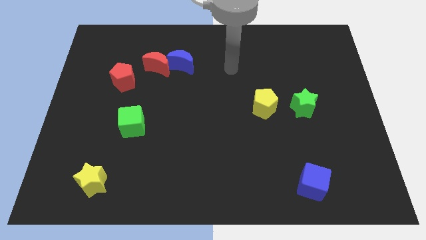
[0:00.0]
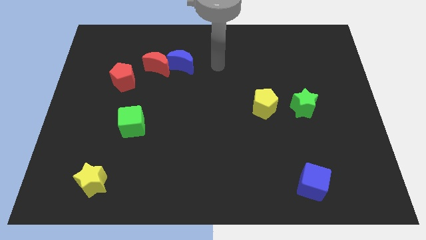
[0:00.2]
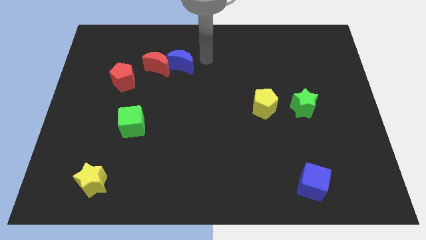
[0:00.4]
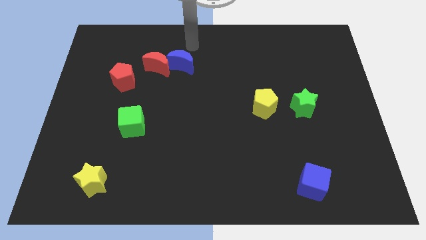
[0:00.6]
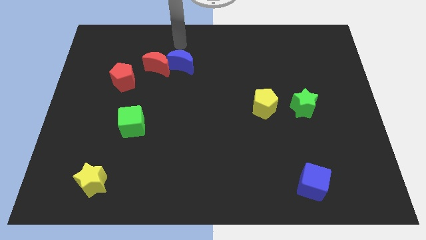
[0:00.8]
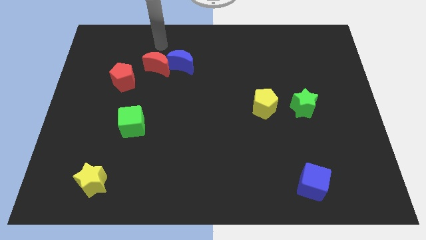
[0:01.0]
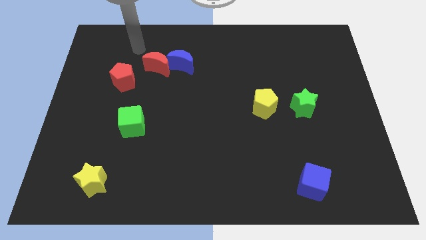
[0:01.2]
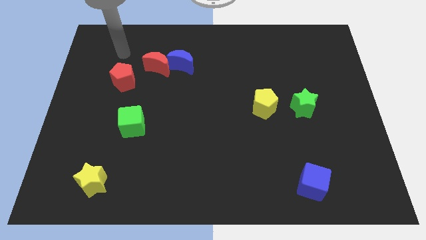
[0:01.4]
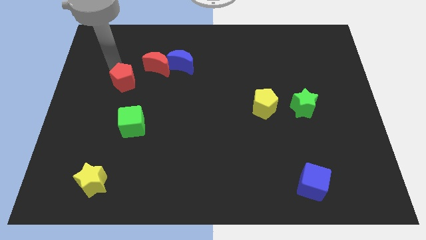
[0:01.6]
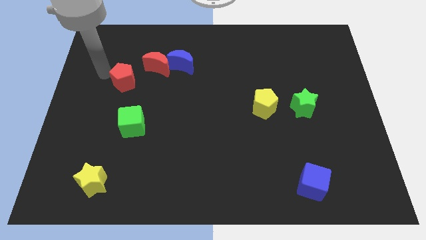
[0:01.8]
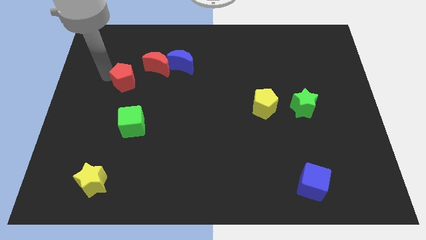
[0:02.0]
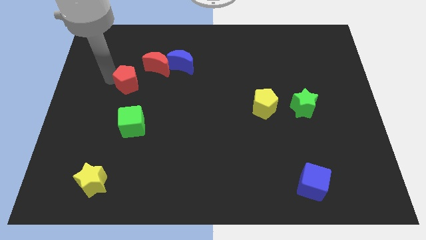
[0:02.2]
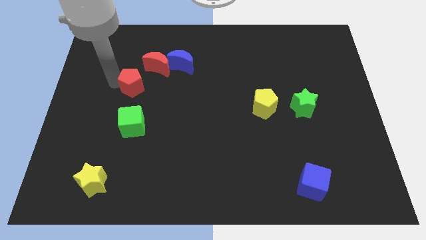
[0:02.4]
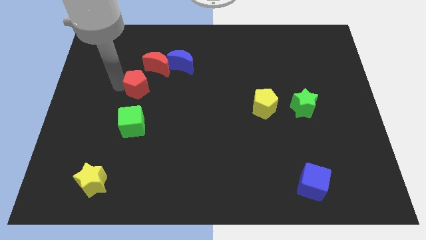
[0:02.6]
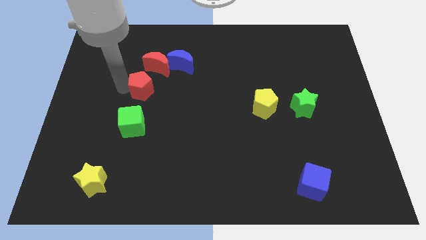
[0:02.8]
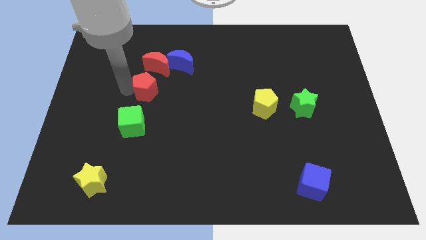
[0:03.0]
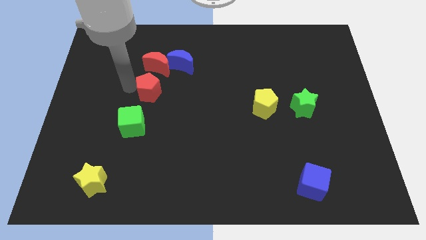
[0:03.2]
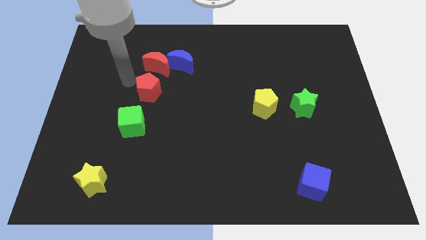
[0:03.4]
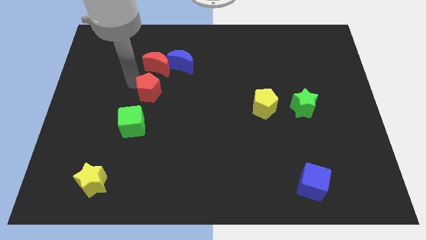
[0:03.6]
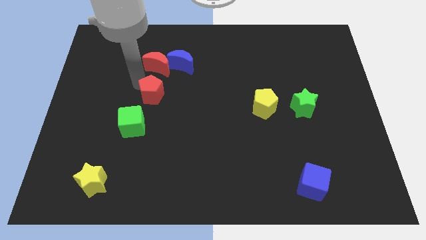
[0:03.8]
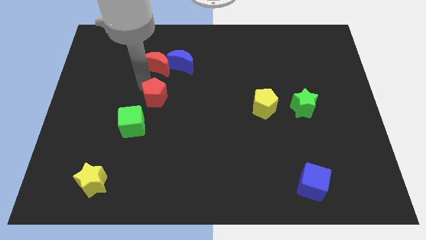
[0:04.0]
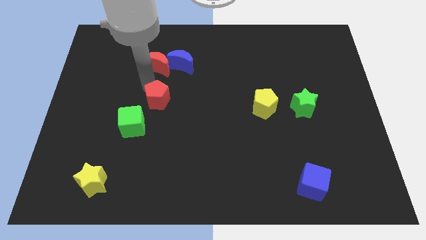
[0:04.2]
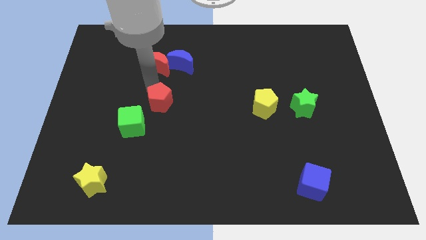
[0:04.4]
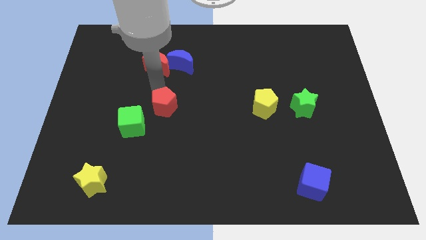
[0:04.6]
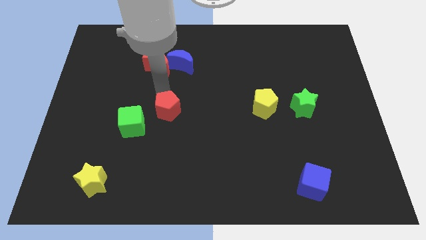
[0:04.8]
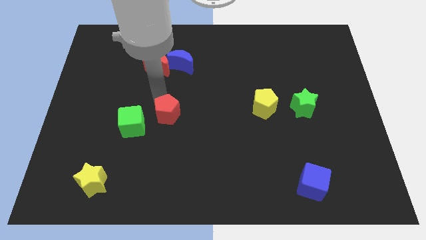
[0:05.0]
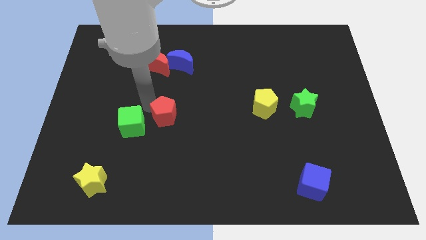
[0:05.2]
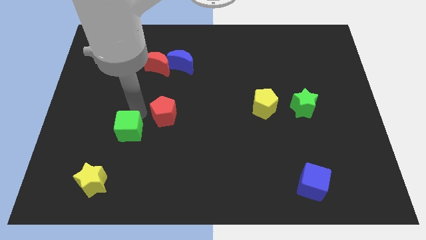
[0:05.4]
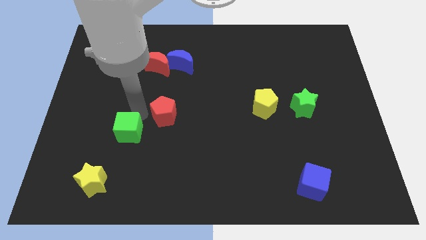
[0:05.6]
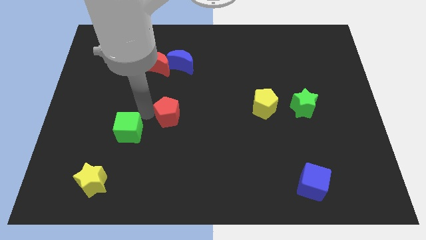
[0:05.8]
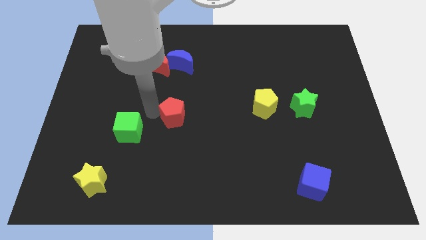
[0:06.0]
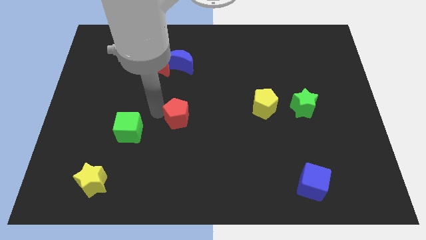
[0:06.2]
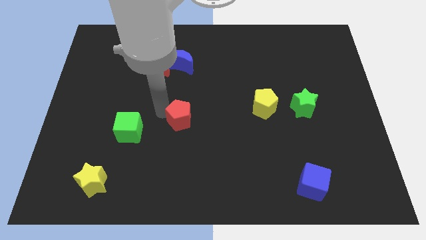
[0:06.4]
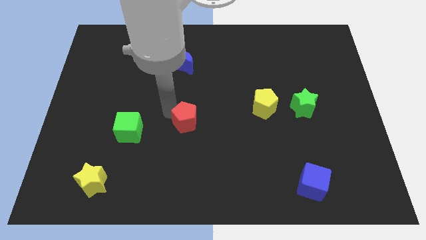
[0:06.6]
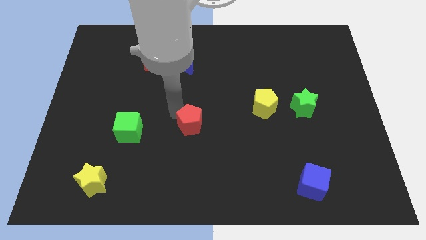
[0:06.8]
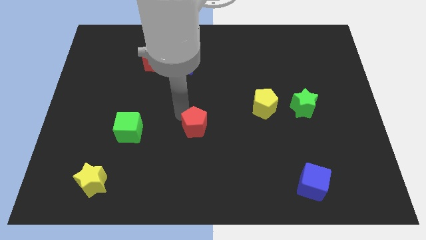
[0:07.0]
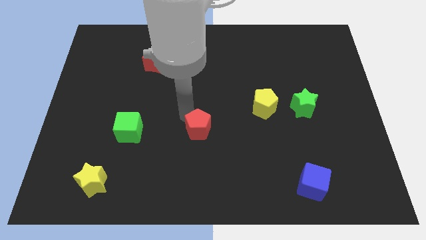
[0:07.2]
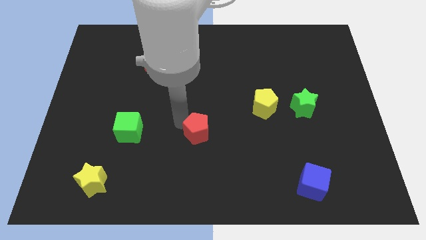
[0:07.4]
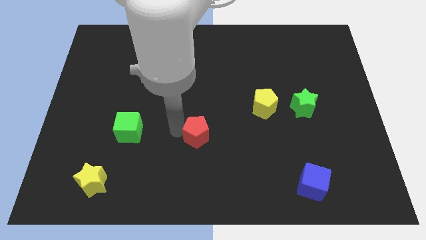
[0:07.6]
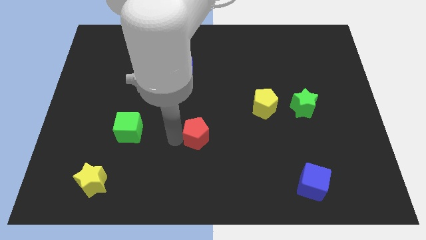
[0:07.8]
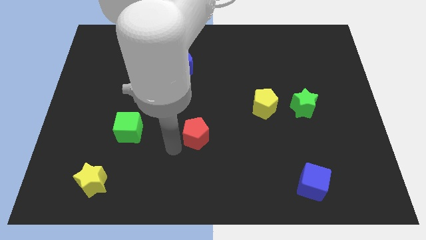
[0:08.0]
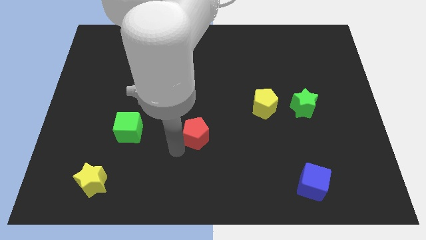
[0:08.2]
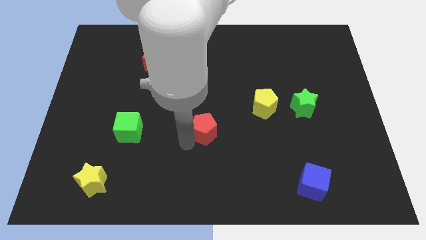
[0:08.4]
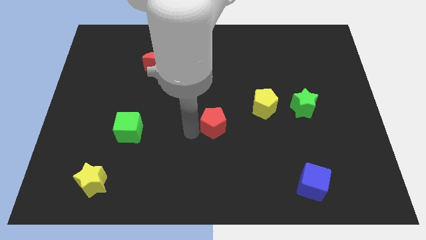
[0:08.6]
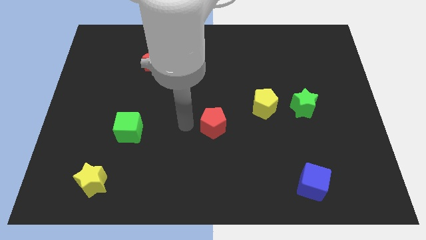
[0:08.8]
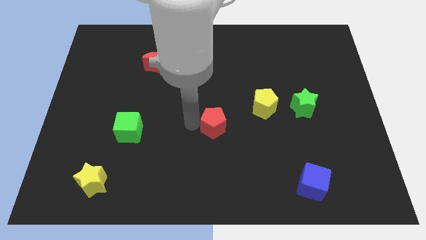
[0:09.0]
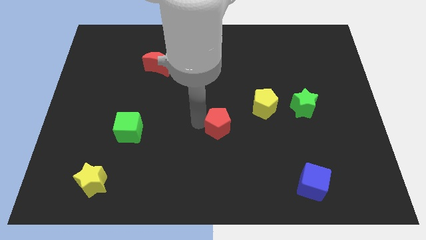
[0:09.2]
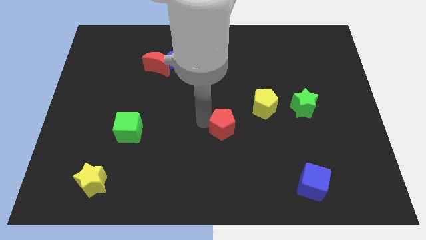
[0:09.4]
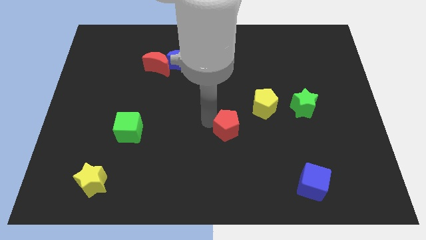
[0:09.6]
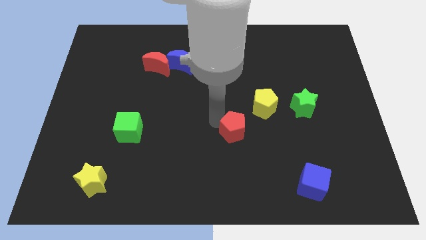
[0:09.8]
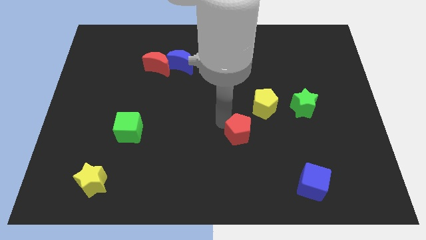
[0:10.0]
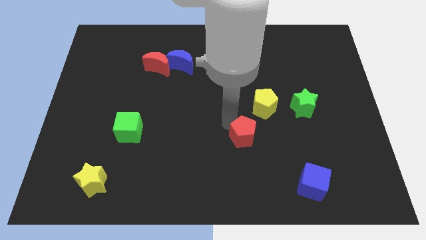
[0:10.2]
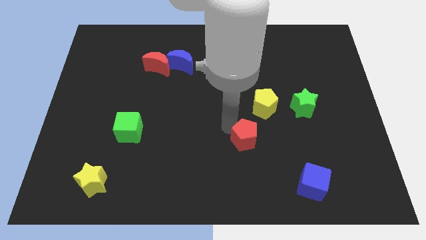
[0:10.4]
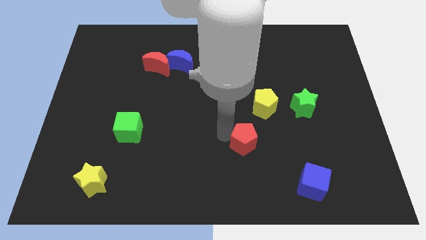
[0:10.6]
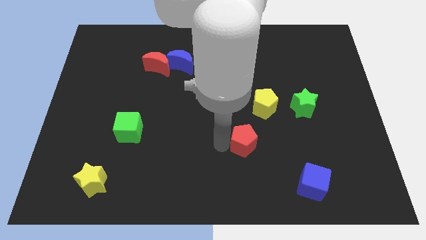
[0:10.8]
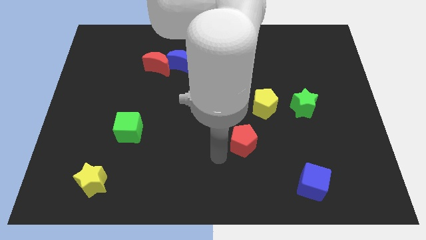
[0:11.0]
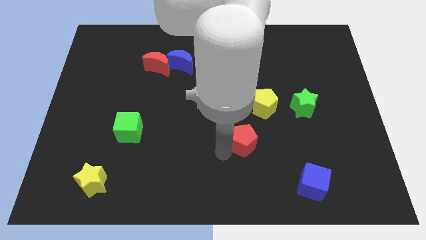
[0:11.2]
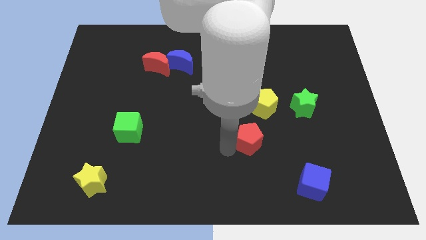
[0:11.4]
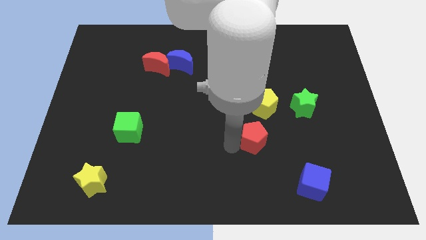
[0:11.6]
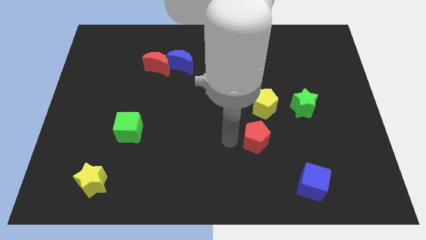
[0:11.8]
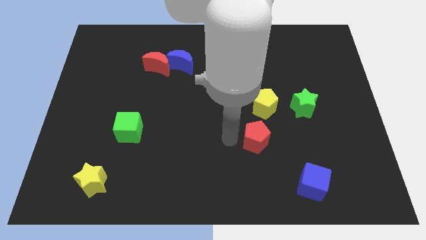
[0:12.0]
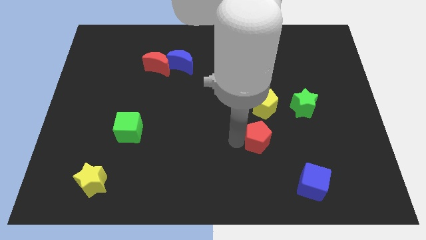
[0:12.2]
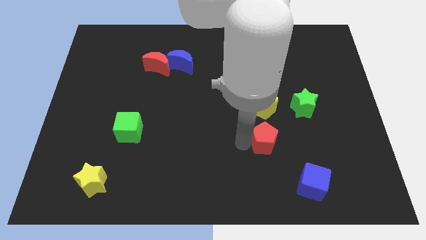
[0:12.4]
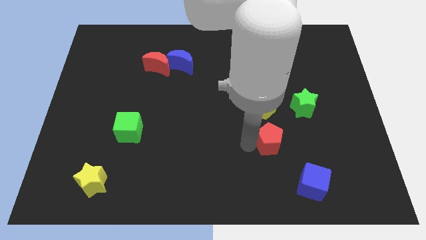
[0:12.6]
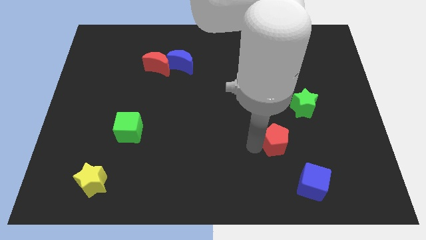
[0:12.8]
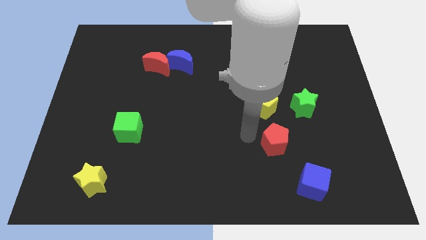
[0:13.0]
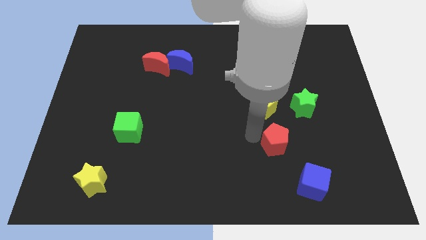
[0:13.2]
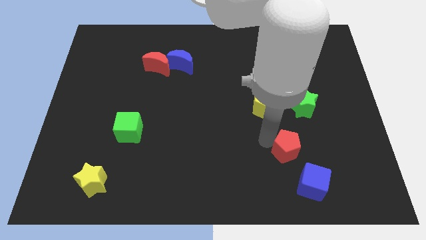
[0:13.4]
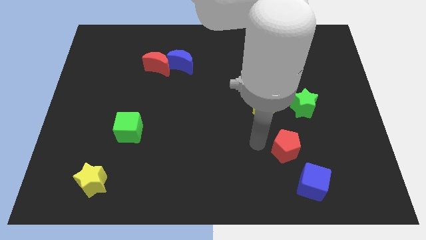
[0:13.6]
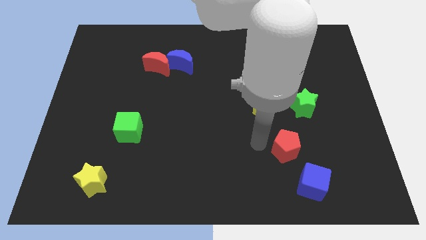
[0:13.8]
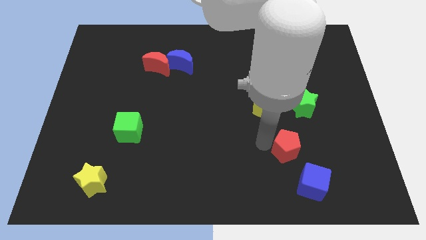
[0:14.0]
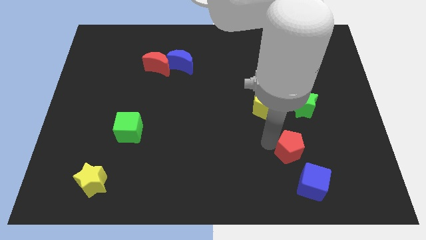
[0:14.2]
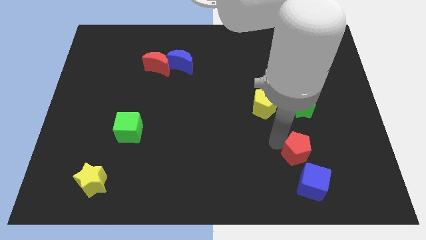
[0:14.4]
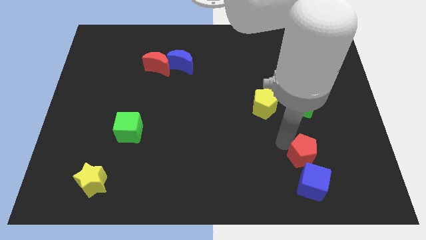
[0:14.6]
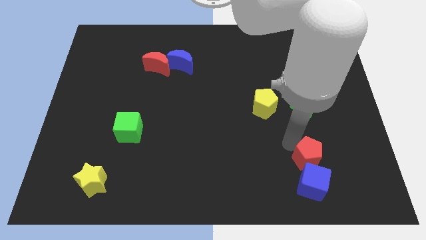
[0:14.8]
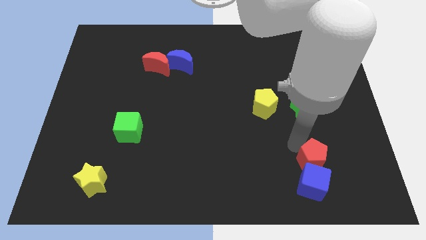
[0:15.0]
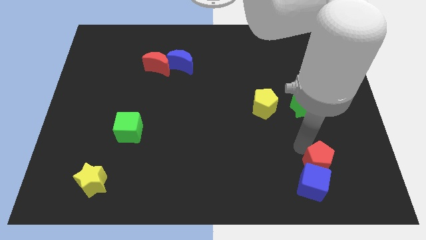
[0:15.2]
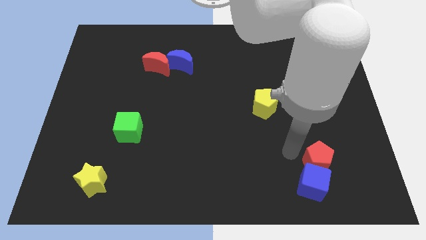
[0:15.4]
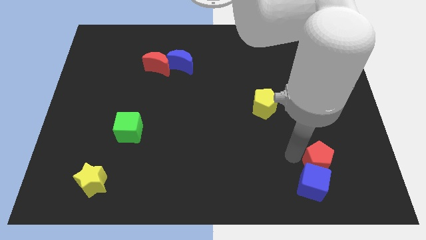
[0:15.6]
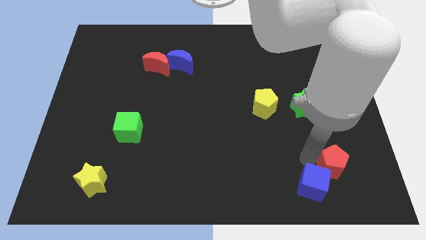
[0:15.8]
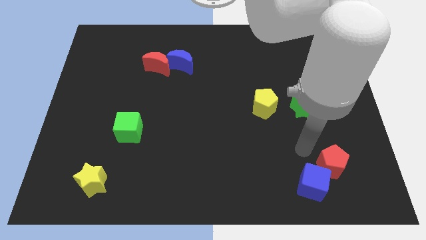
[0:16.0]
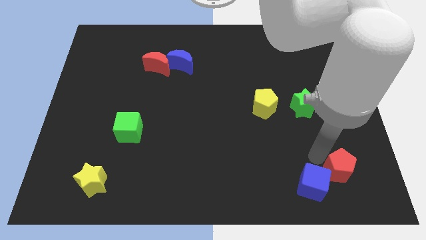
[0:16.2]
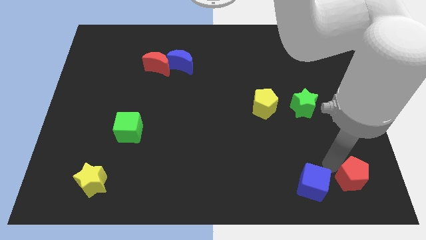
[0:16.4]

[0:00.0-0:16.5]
move the red pentagon to the lower right corner
